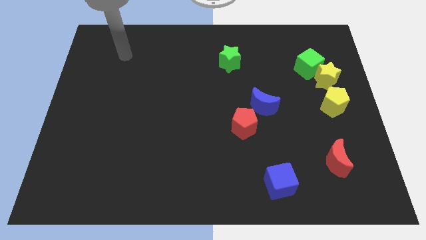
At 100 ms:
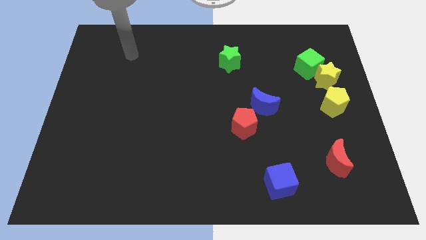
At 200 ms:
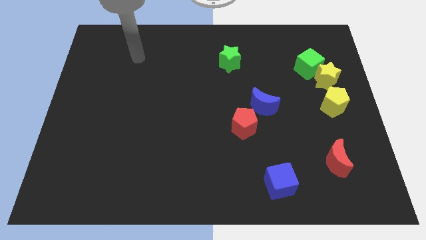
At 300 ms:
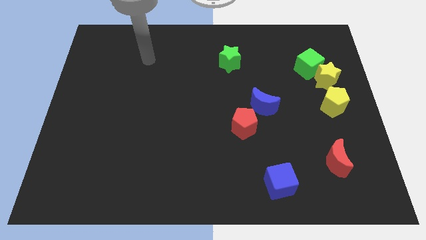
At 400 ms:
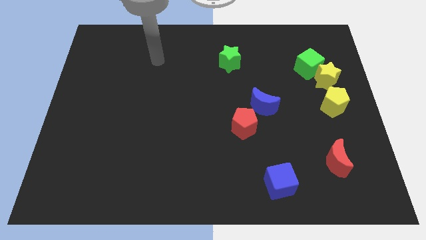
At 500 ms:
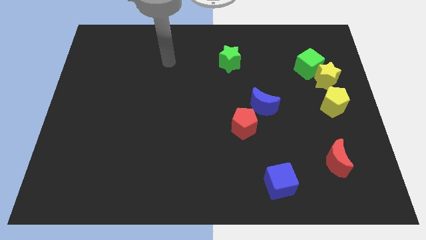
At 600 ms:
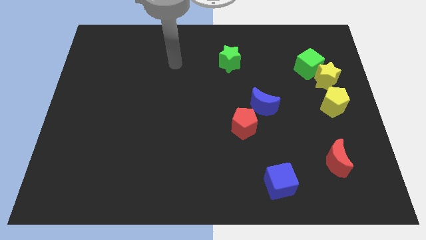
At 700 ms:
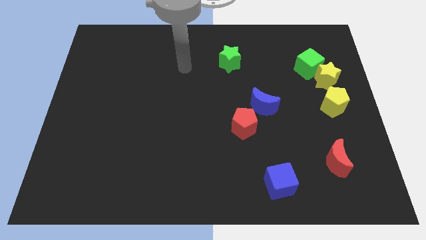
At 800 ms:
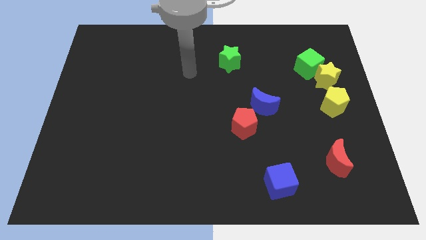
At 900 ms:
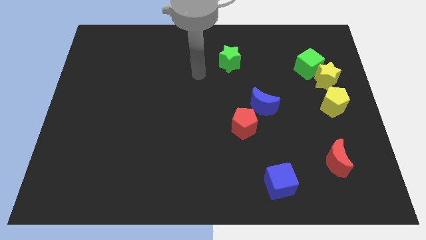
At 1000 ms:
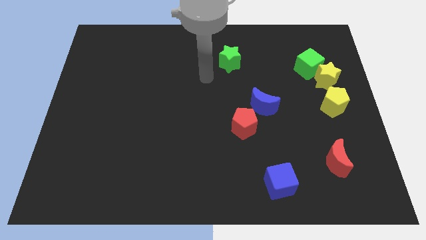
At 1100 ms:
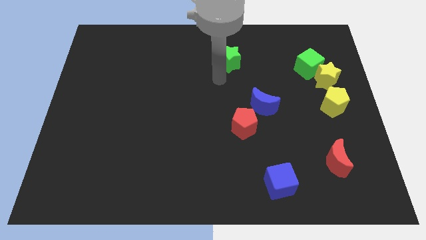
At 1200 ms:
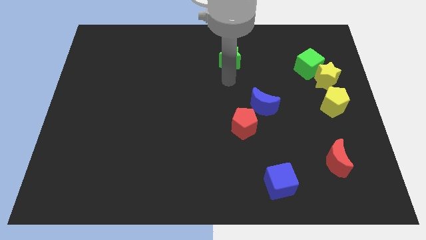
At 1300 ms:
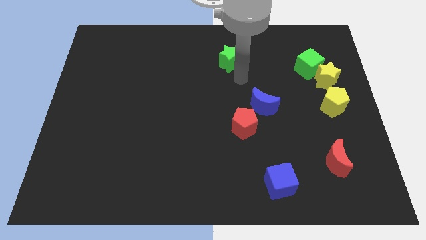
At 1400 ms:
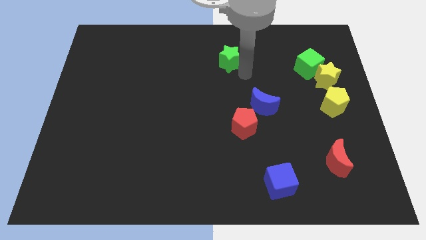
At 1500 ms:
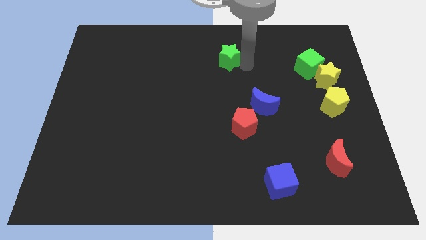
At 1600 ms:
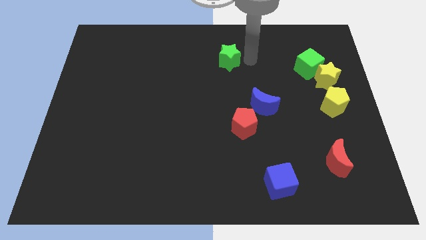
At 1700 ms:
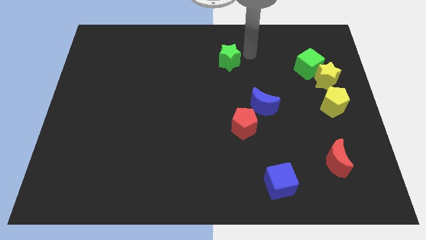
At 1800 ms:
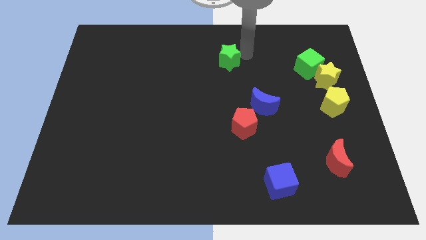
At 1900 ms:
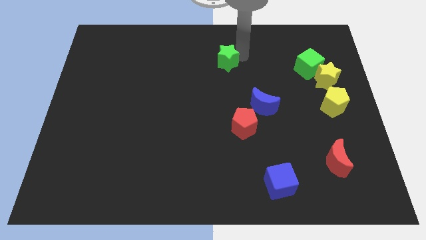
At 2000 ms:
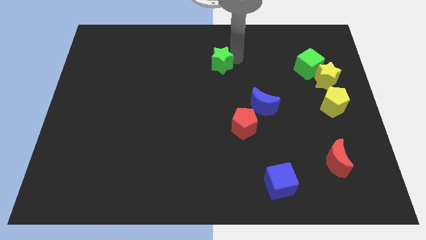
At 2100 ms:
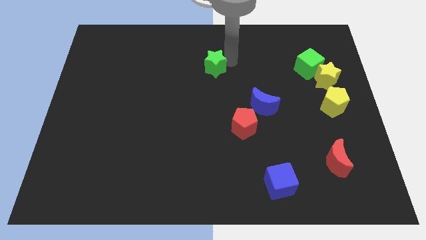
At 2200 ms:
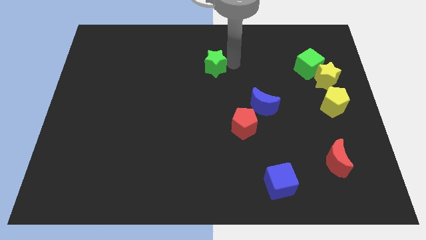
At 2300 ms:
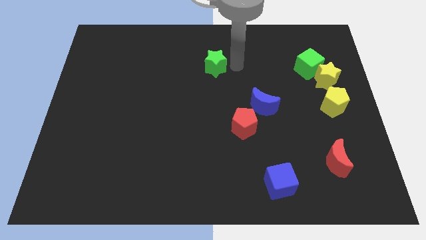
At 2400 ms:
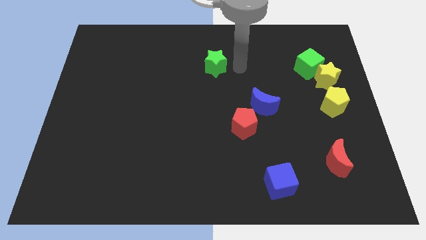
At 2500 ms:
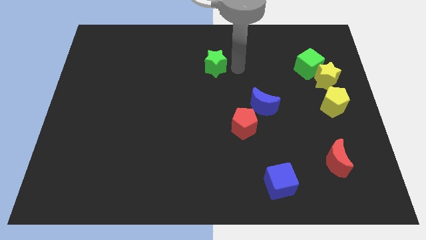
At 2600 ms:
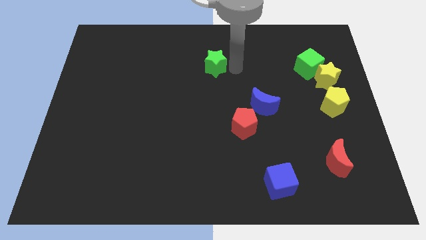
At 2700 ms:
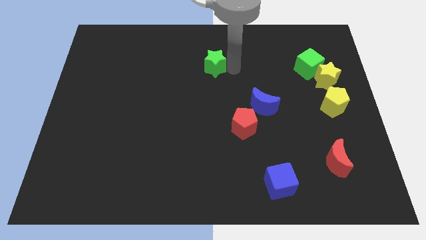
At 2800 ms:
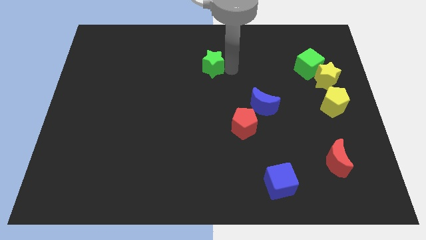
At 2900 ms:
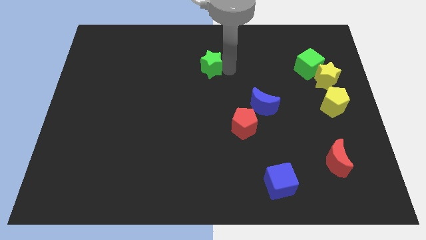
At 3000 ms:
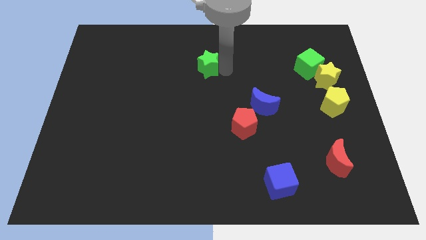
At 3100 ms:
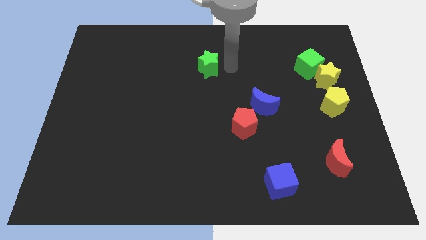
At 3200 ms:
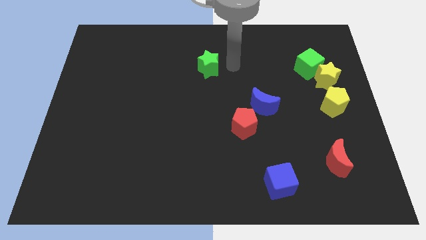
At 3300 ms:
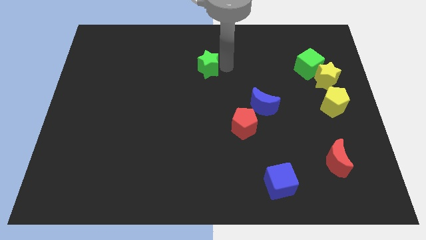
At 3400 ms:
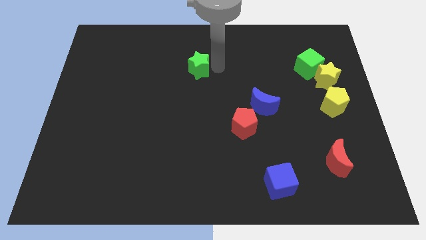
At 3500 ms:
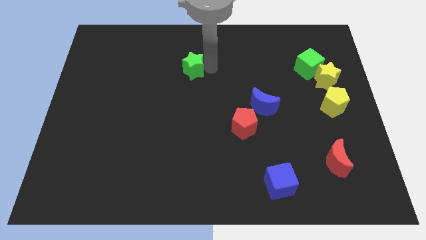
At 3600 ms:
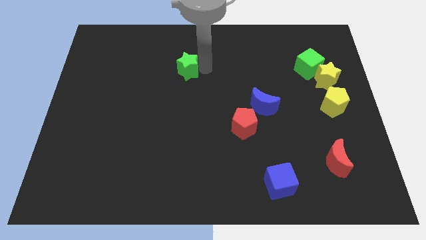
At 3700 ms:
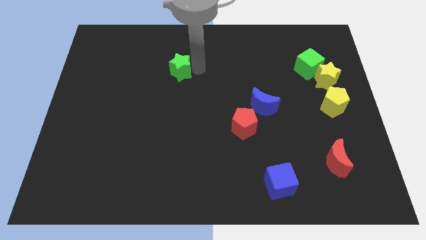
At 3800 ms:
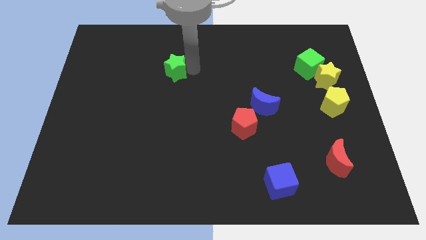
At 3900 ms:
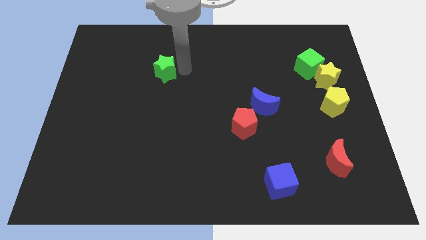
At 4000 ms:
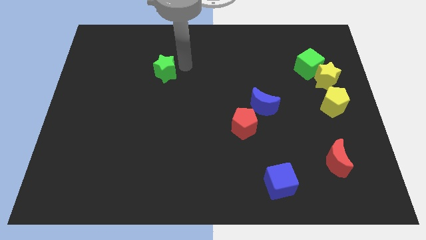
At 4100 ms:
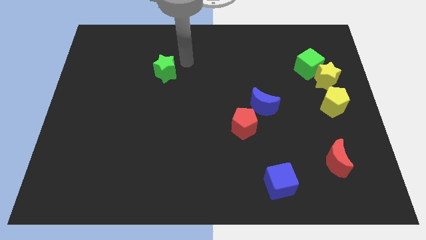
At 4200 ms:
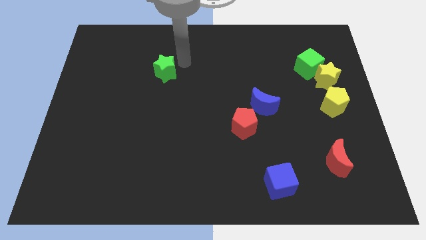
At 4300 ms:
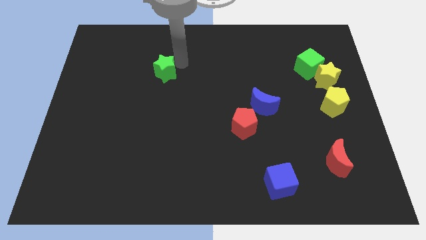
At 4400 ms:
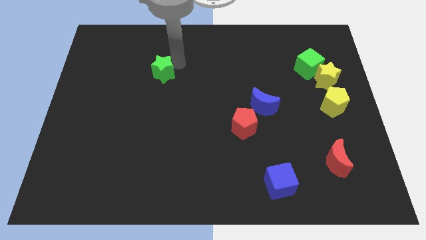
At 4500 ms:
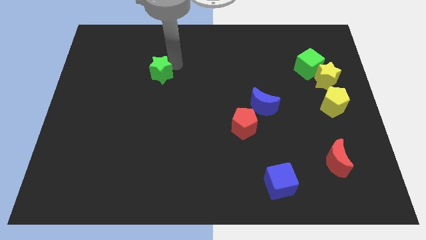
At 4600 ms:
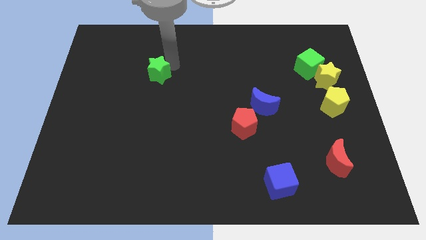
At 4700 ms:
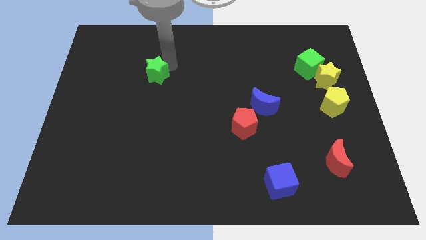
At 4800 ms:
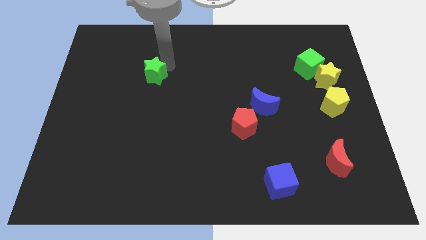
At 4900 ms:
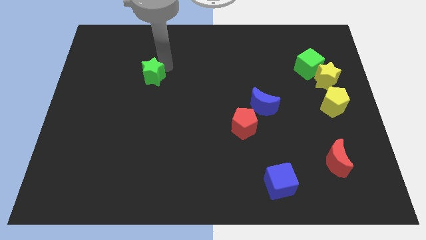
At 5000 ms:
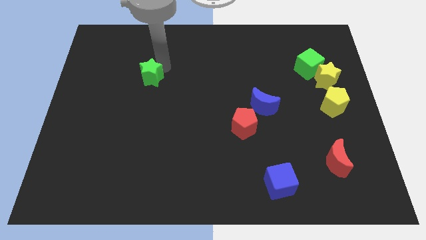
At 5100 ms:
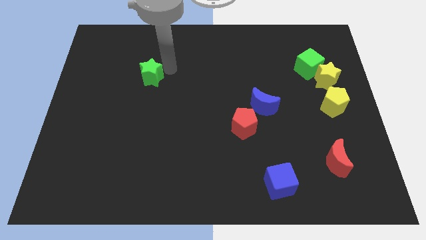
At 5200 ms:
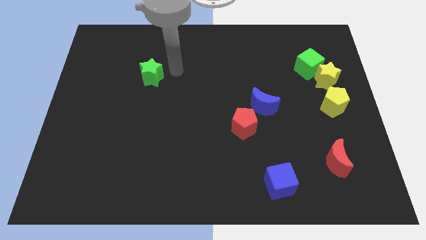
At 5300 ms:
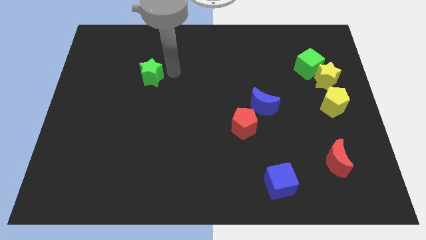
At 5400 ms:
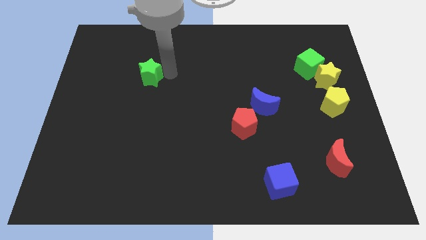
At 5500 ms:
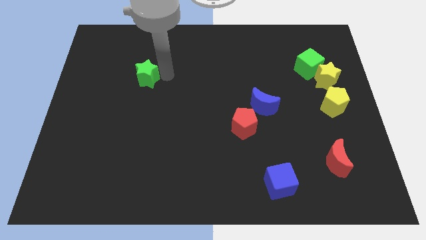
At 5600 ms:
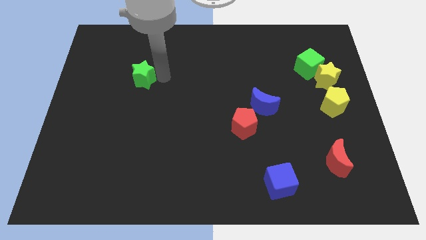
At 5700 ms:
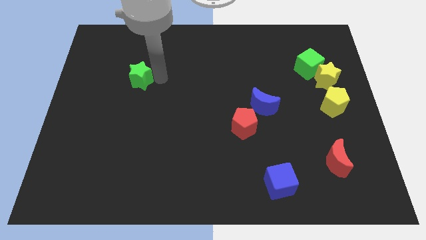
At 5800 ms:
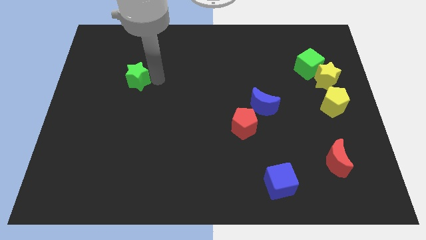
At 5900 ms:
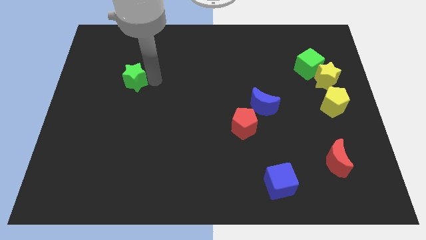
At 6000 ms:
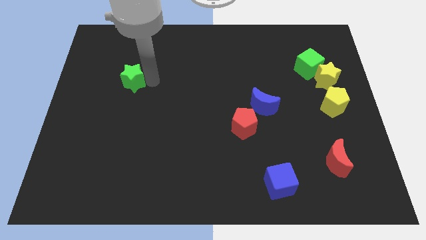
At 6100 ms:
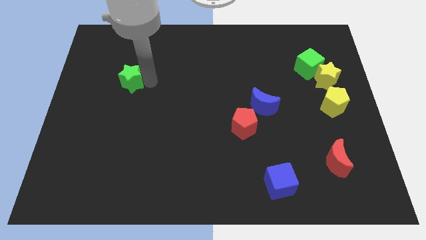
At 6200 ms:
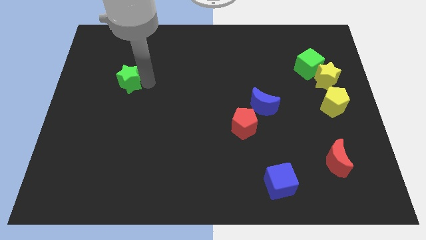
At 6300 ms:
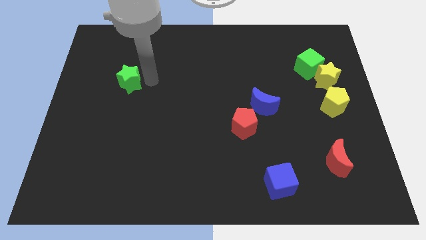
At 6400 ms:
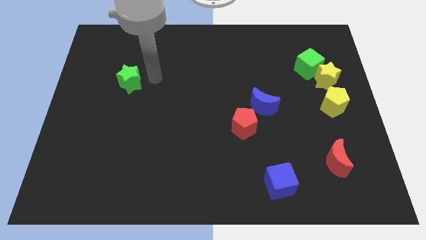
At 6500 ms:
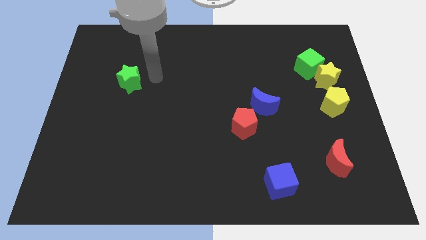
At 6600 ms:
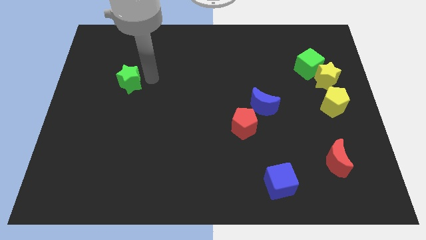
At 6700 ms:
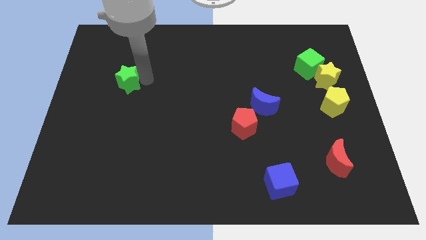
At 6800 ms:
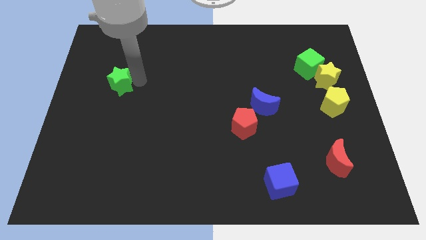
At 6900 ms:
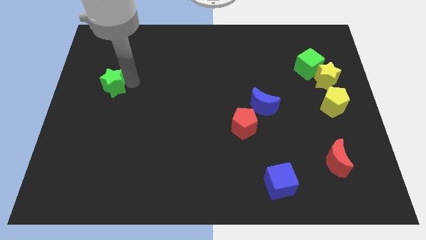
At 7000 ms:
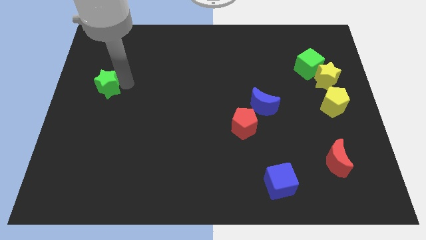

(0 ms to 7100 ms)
push the green star to the left side
